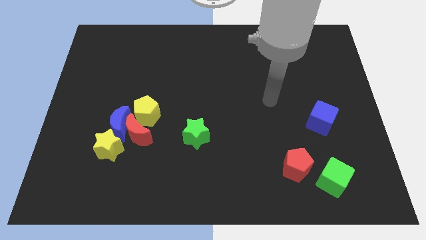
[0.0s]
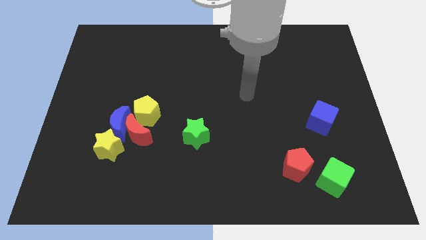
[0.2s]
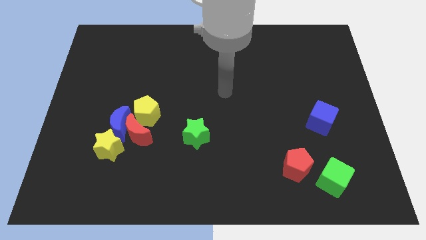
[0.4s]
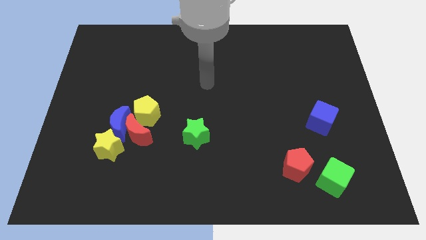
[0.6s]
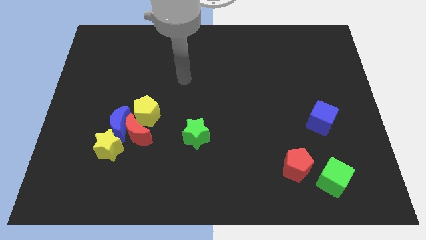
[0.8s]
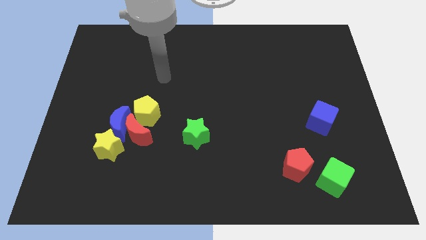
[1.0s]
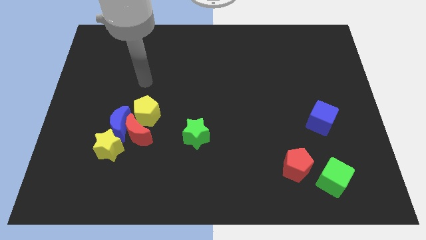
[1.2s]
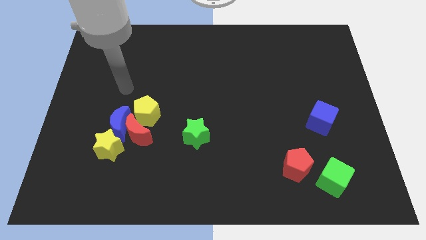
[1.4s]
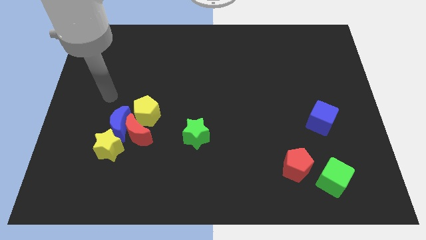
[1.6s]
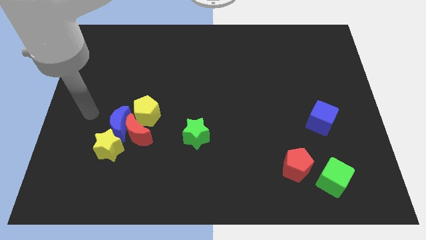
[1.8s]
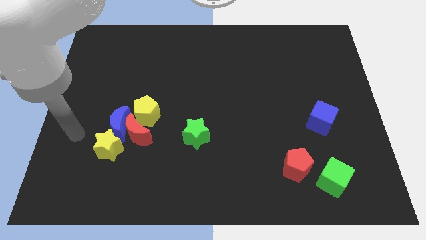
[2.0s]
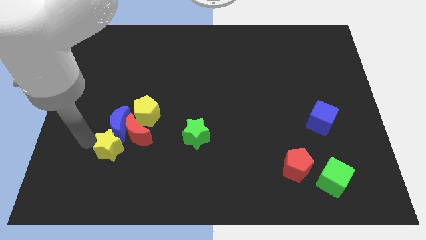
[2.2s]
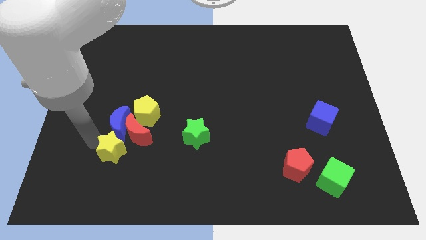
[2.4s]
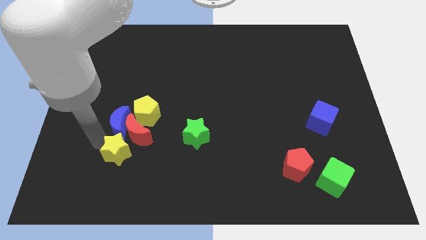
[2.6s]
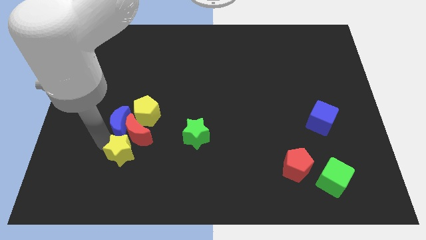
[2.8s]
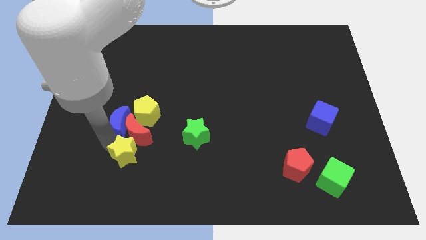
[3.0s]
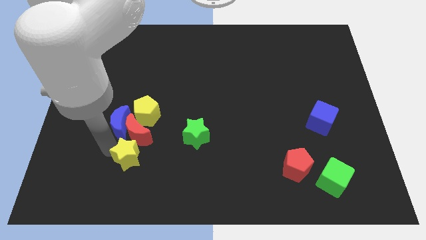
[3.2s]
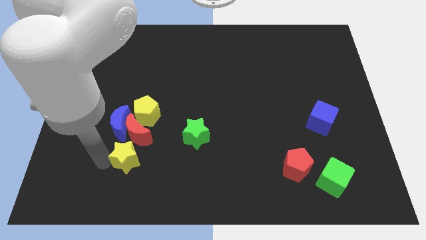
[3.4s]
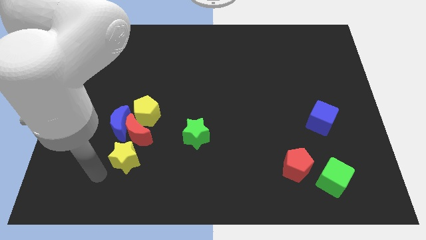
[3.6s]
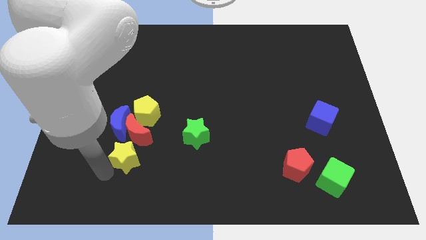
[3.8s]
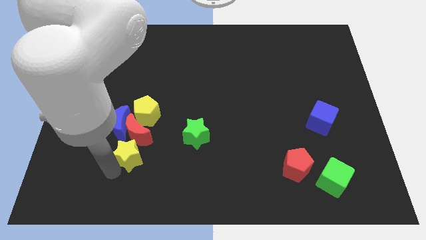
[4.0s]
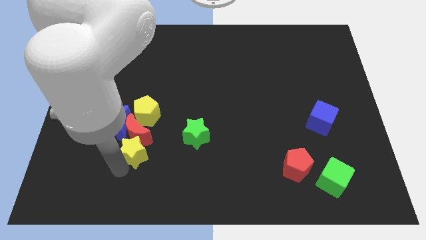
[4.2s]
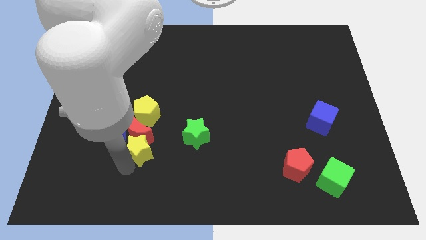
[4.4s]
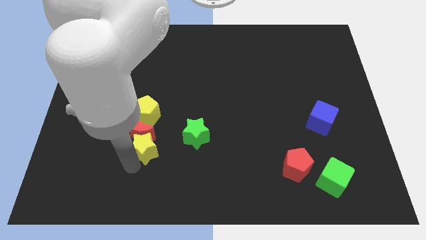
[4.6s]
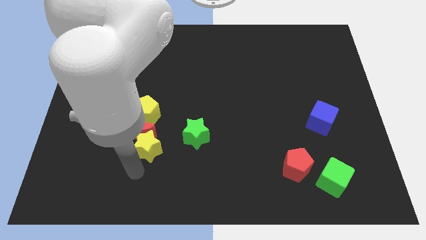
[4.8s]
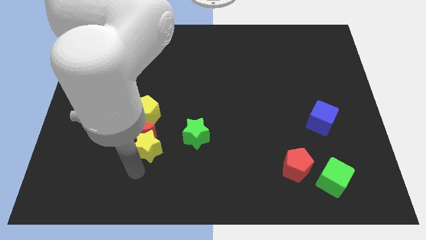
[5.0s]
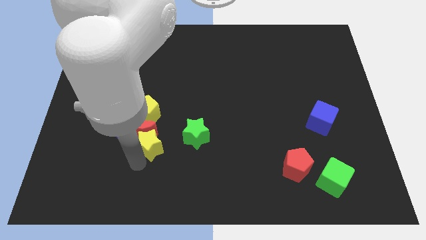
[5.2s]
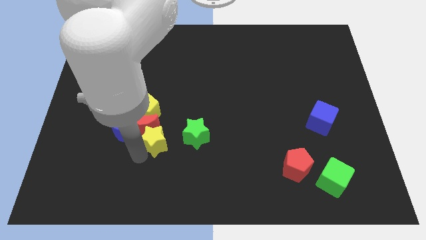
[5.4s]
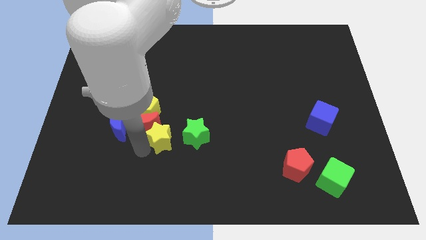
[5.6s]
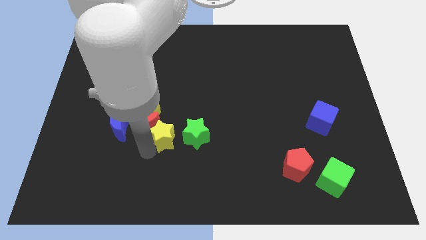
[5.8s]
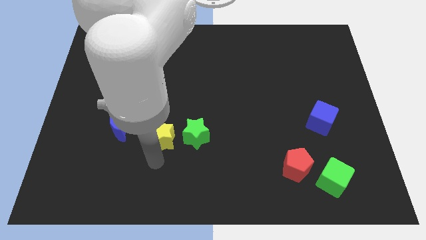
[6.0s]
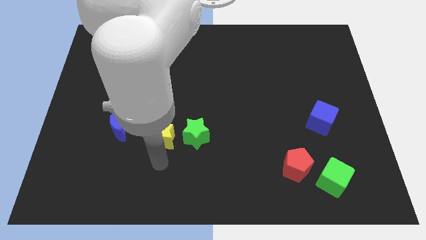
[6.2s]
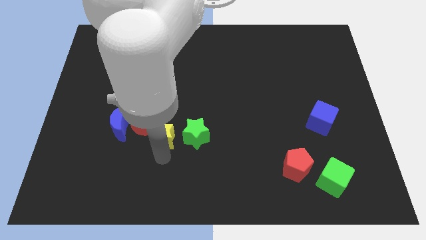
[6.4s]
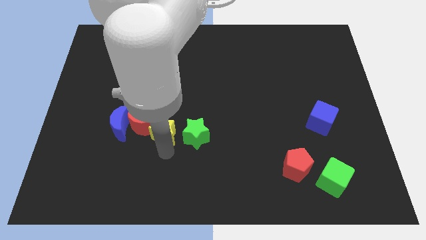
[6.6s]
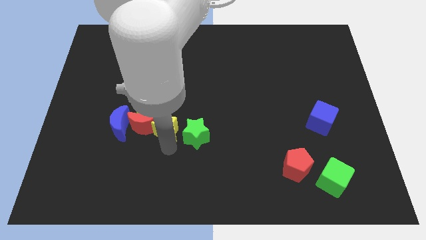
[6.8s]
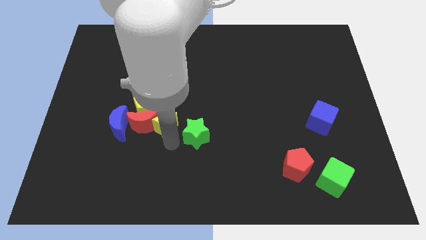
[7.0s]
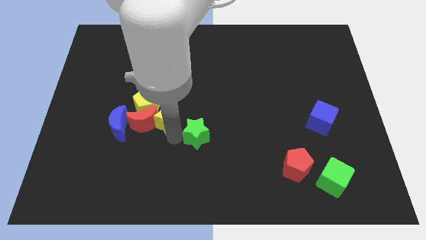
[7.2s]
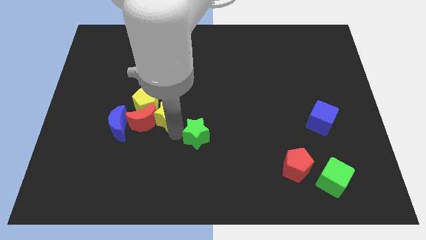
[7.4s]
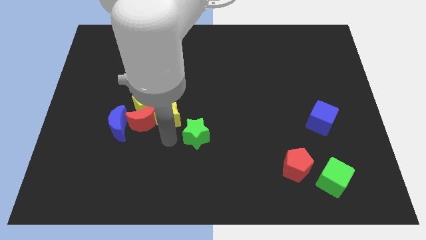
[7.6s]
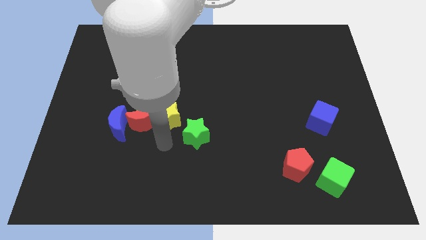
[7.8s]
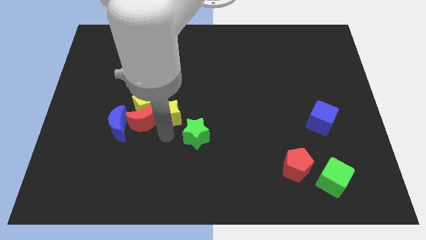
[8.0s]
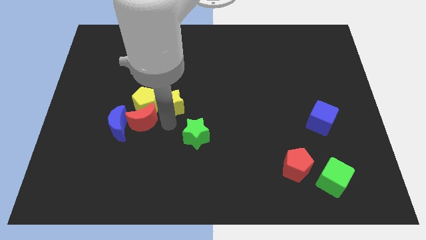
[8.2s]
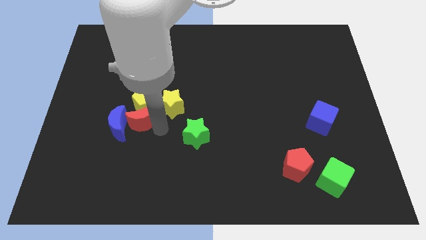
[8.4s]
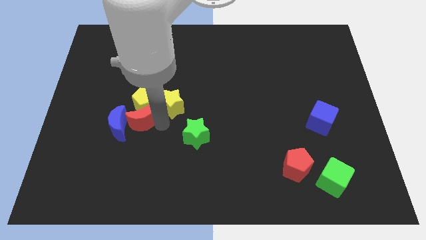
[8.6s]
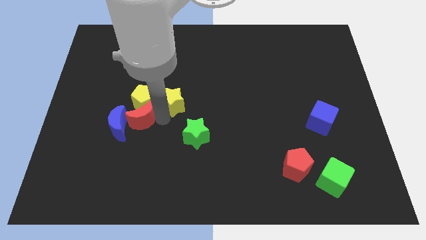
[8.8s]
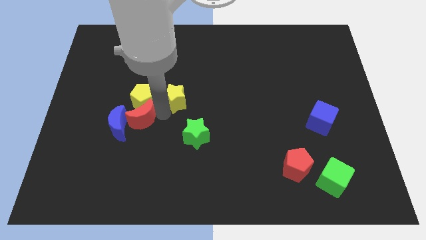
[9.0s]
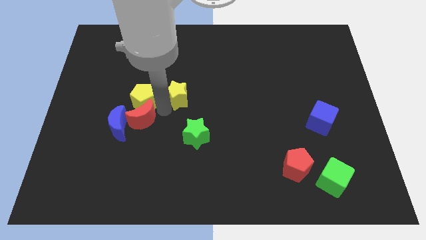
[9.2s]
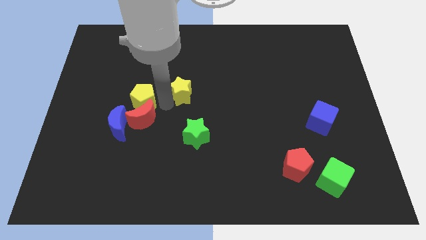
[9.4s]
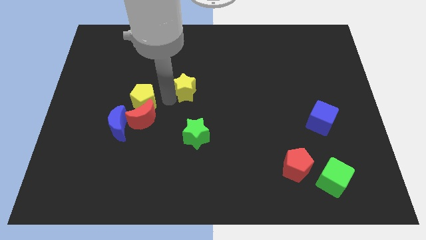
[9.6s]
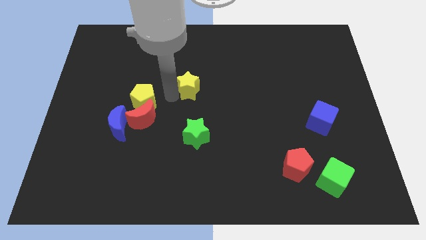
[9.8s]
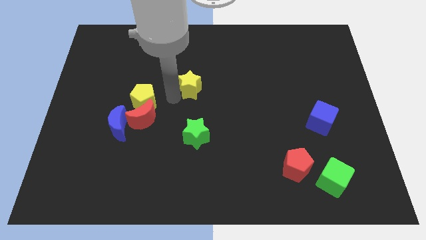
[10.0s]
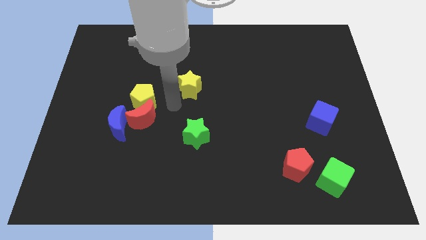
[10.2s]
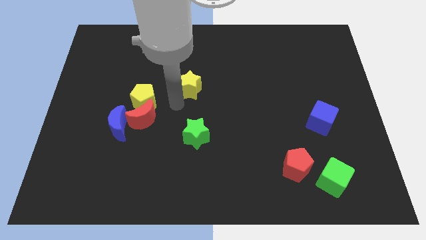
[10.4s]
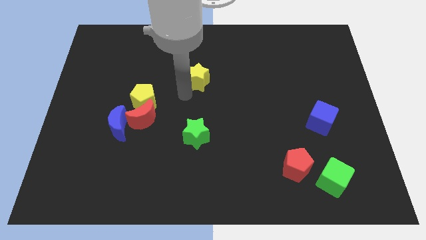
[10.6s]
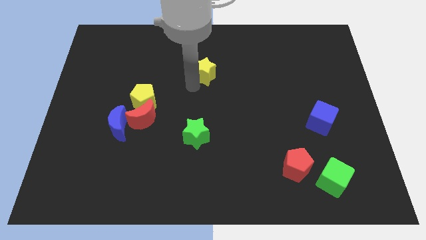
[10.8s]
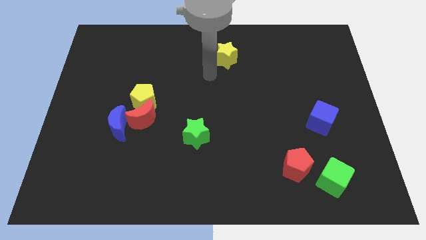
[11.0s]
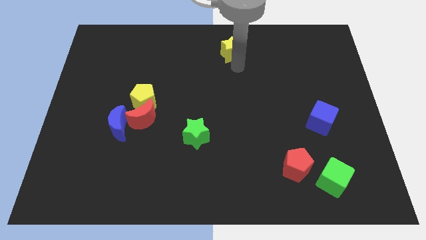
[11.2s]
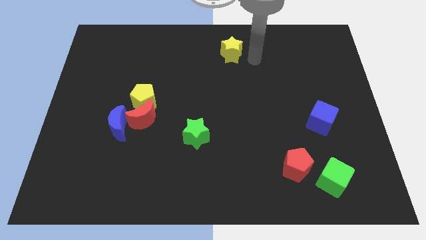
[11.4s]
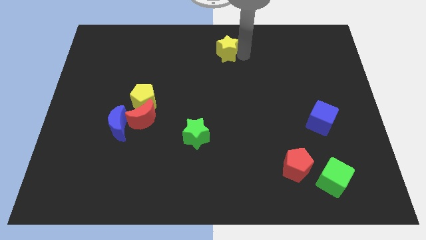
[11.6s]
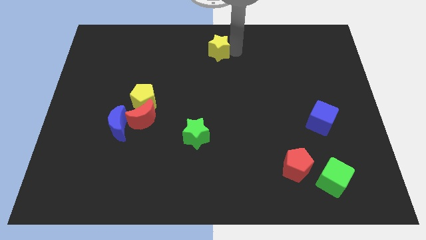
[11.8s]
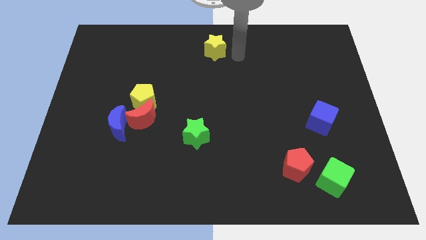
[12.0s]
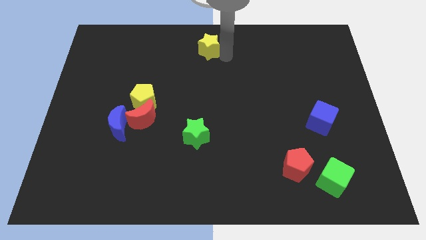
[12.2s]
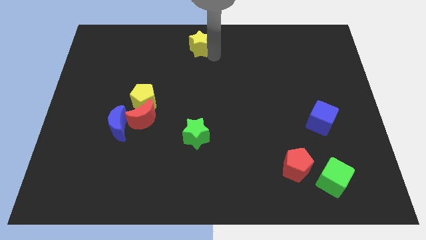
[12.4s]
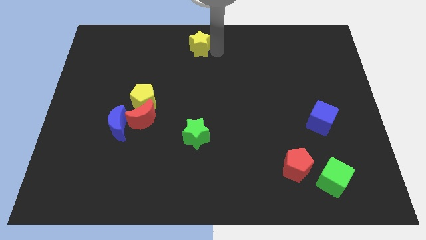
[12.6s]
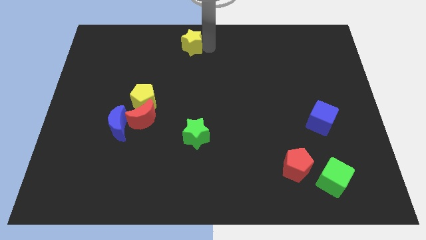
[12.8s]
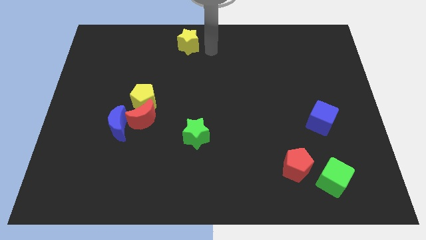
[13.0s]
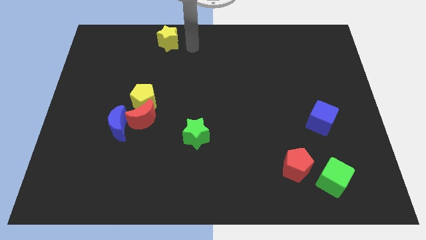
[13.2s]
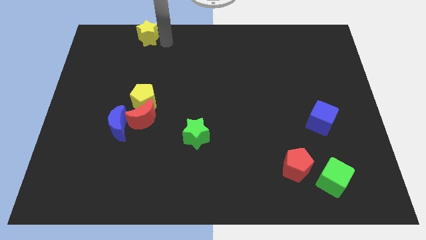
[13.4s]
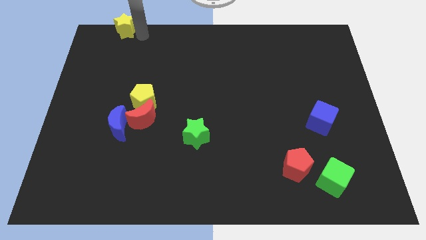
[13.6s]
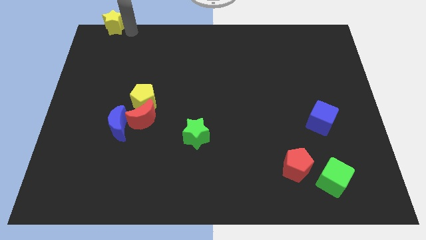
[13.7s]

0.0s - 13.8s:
slide the yellow star to the top left of the board
